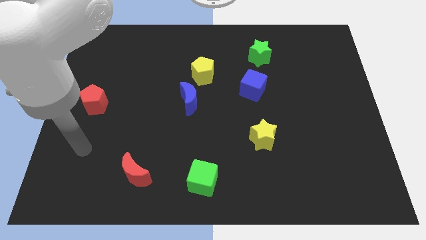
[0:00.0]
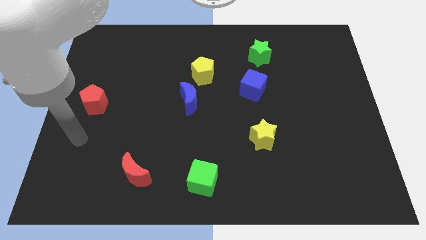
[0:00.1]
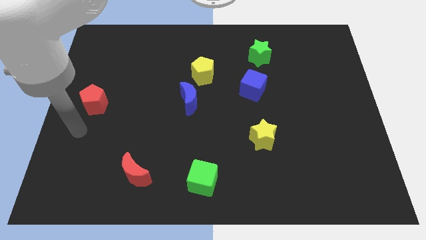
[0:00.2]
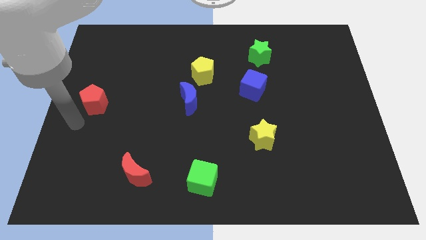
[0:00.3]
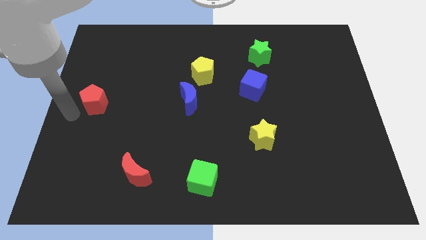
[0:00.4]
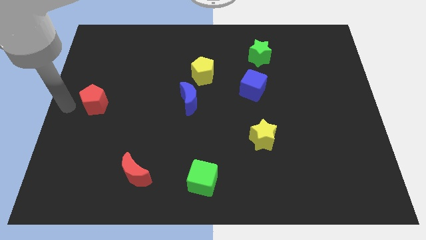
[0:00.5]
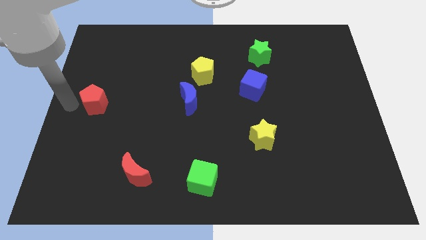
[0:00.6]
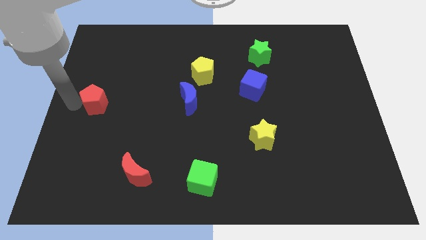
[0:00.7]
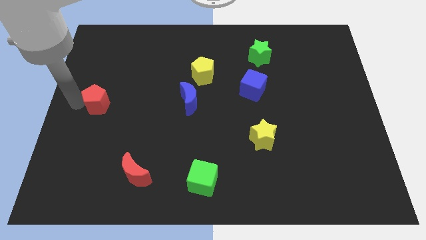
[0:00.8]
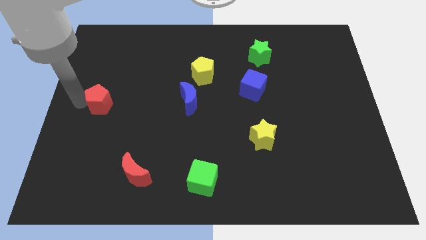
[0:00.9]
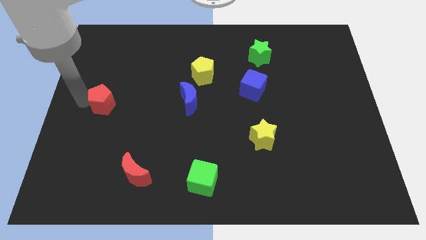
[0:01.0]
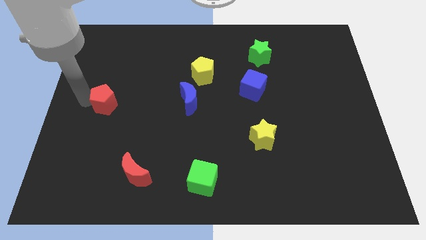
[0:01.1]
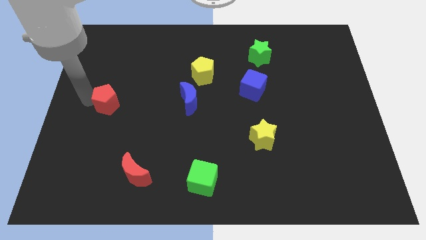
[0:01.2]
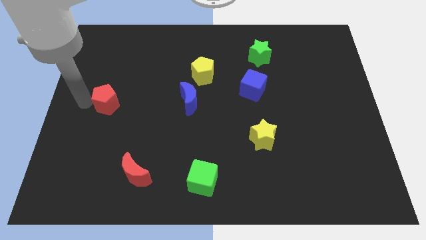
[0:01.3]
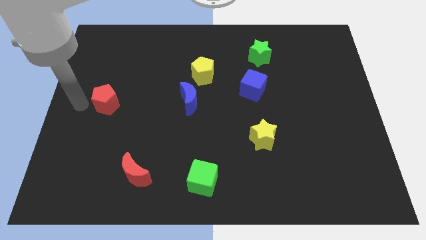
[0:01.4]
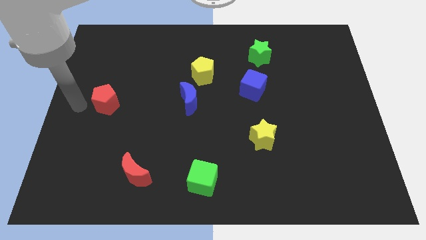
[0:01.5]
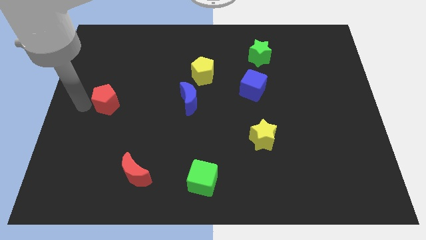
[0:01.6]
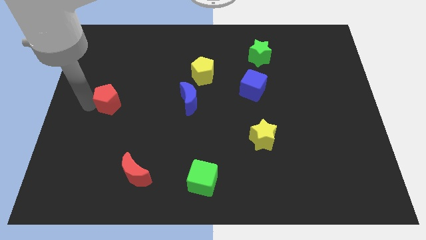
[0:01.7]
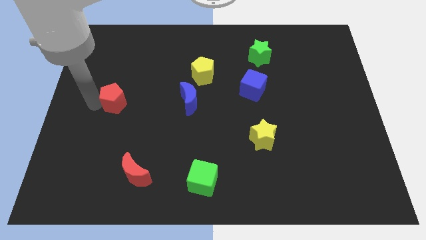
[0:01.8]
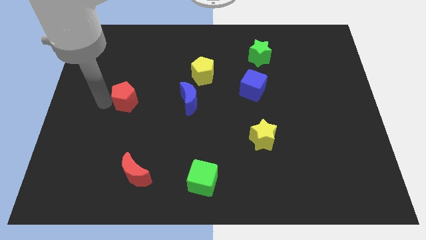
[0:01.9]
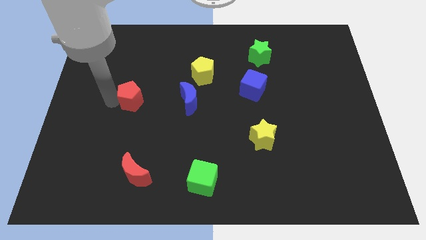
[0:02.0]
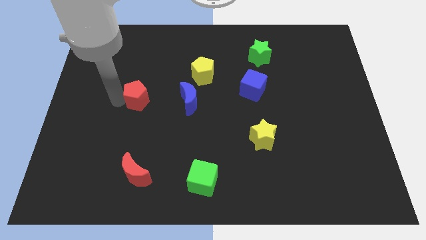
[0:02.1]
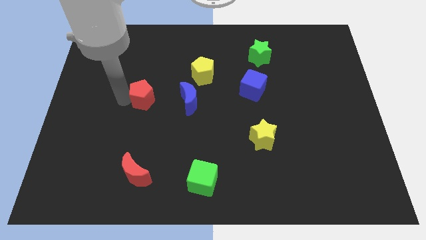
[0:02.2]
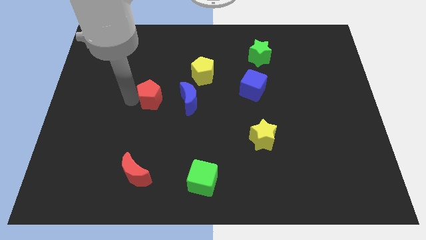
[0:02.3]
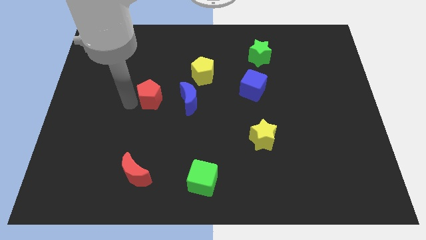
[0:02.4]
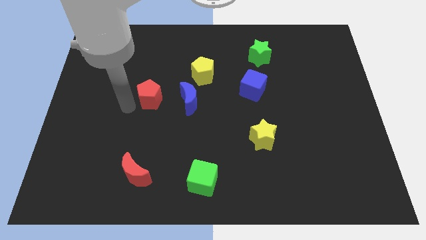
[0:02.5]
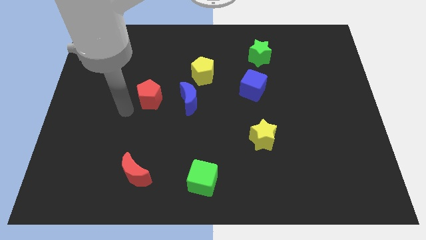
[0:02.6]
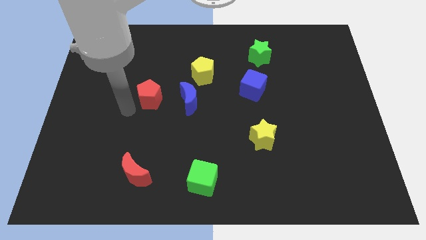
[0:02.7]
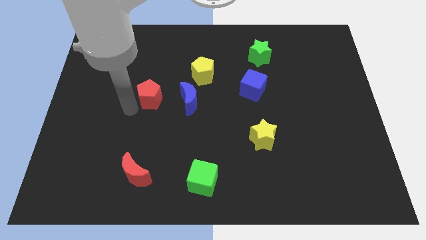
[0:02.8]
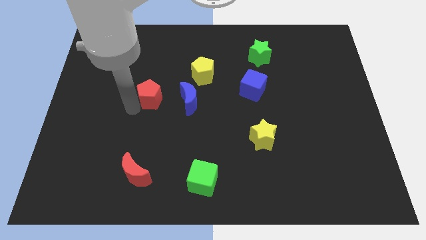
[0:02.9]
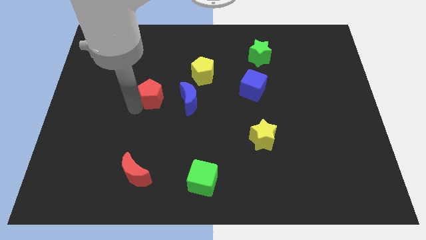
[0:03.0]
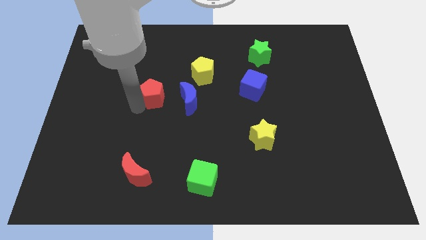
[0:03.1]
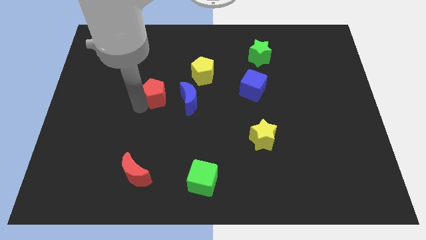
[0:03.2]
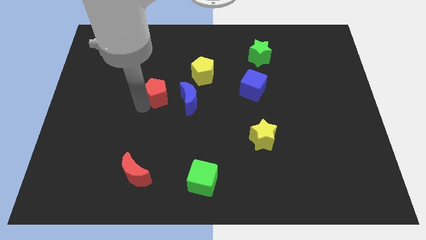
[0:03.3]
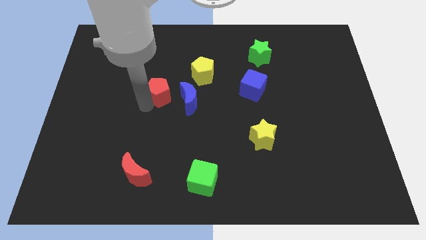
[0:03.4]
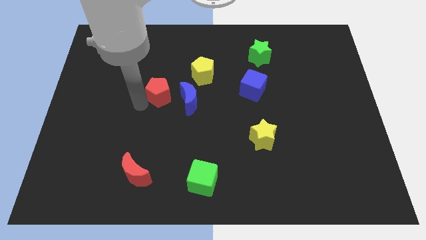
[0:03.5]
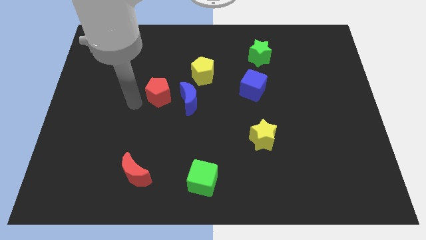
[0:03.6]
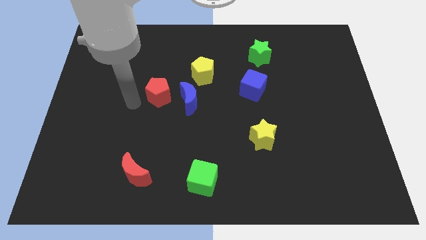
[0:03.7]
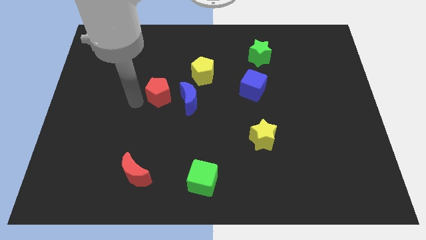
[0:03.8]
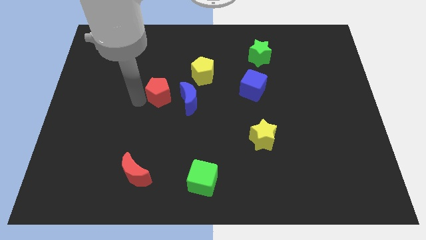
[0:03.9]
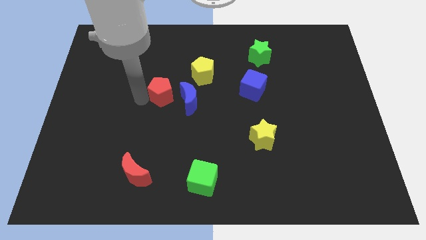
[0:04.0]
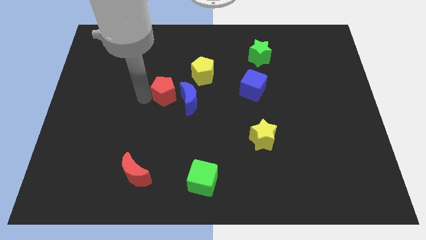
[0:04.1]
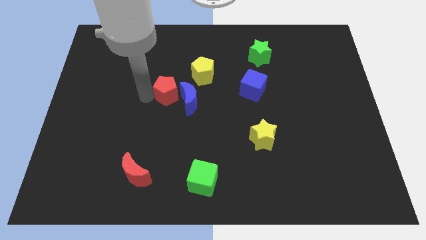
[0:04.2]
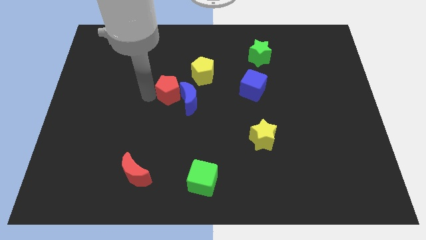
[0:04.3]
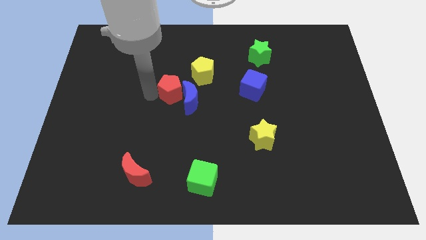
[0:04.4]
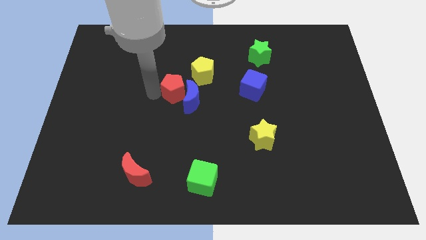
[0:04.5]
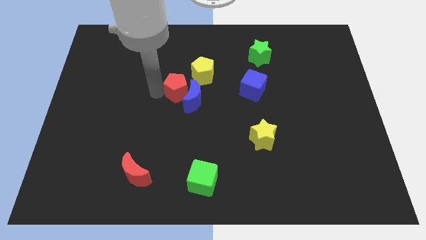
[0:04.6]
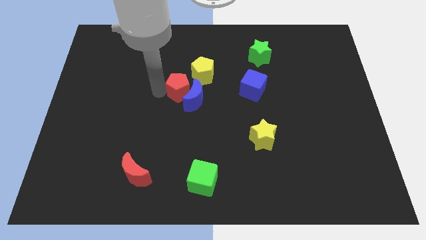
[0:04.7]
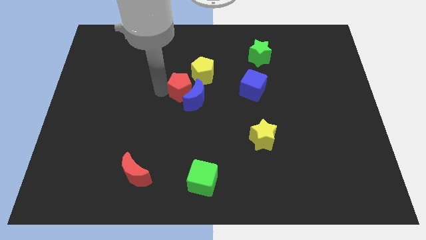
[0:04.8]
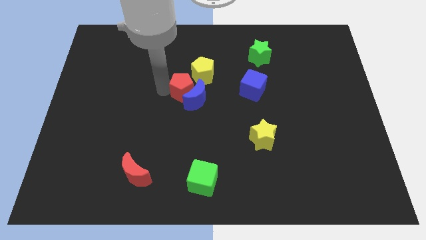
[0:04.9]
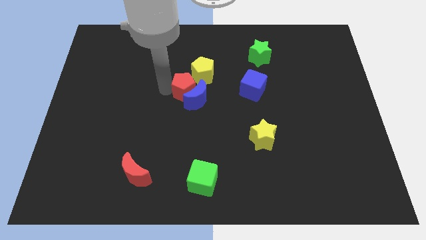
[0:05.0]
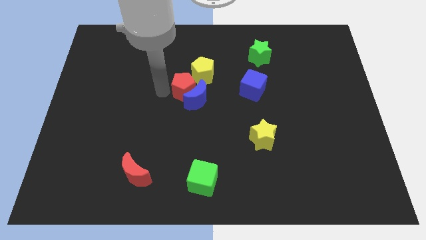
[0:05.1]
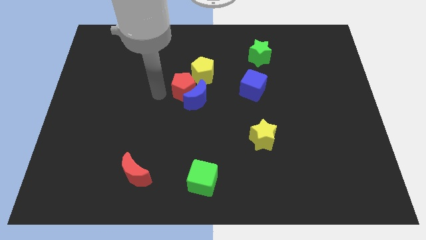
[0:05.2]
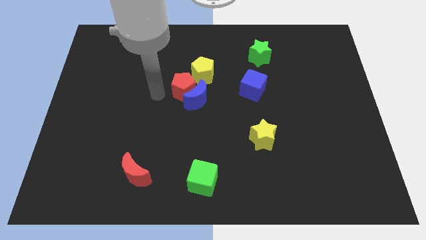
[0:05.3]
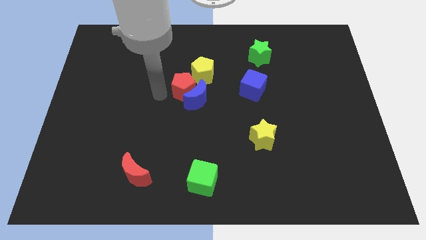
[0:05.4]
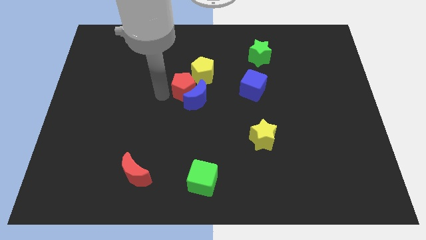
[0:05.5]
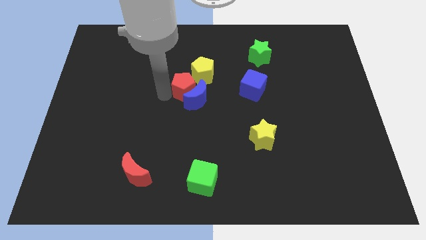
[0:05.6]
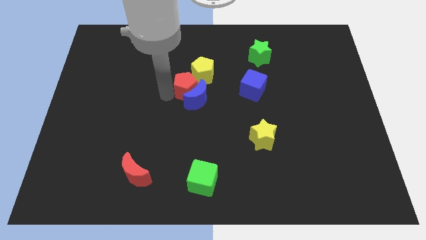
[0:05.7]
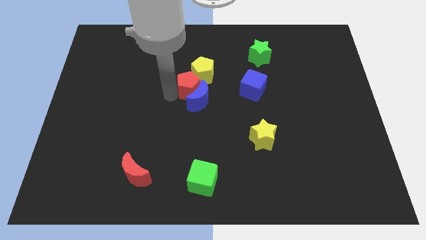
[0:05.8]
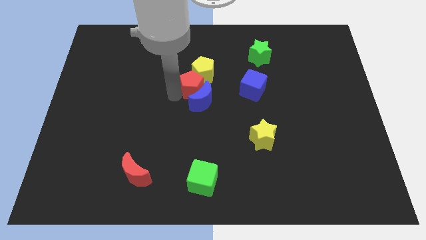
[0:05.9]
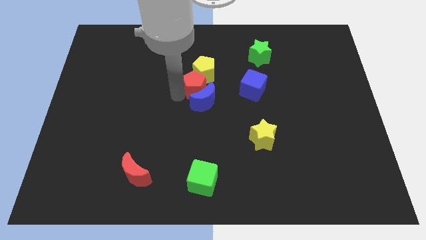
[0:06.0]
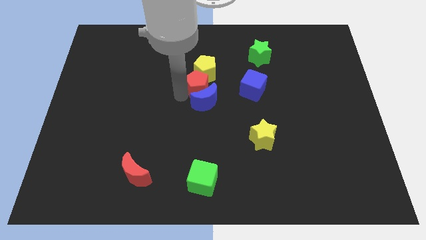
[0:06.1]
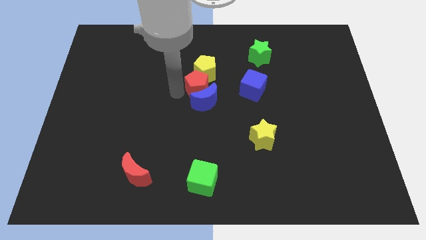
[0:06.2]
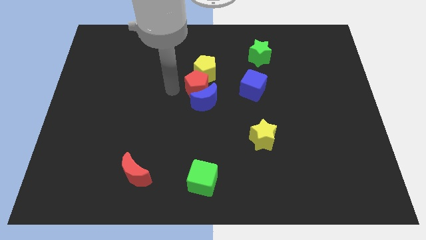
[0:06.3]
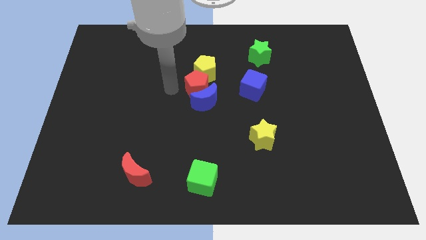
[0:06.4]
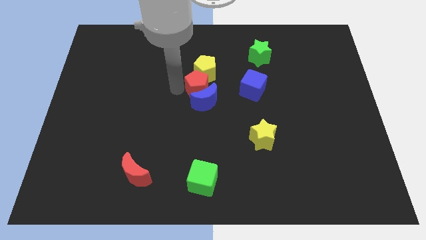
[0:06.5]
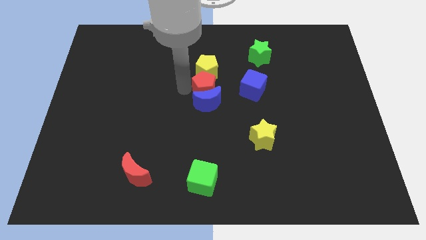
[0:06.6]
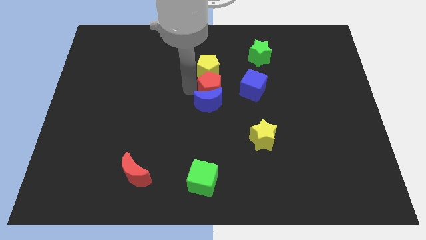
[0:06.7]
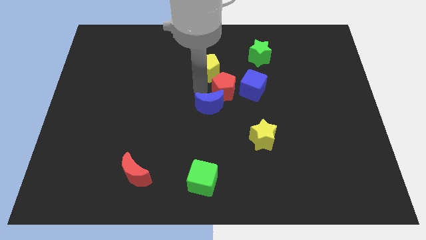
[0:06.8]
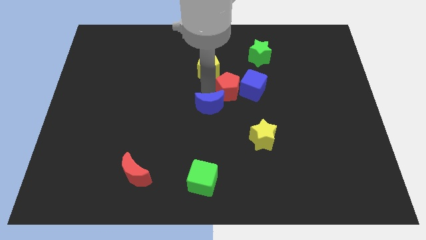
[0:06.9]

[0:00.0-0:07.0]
push the red pentagon towards the blue cube

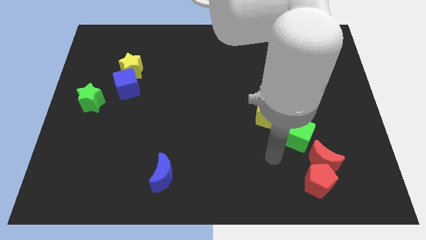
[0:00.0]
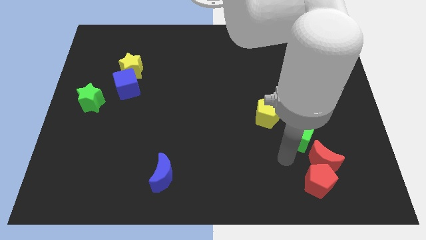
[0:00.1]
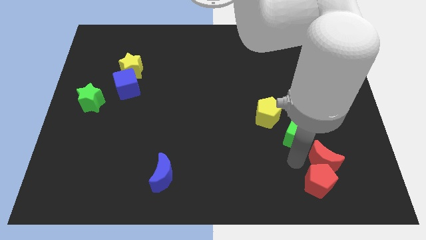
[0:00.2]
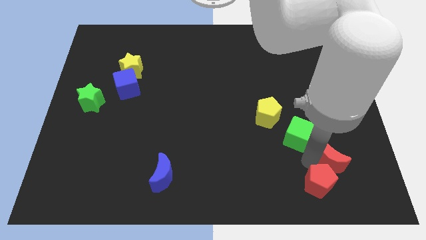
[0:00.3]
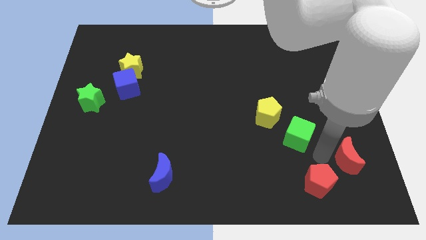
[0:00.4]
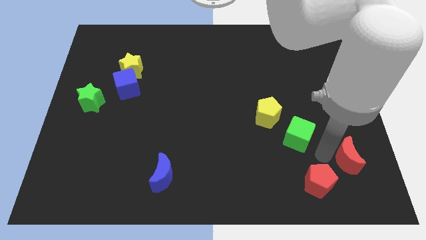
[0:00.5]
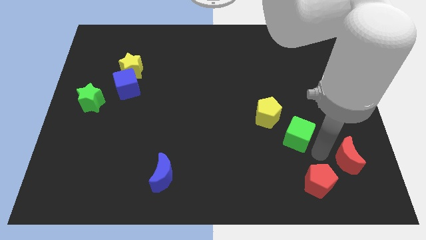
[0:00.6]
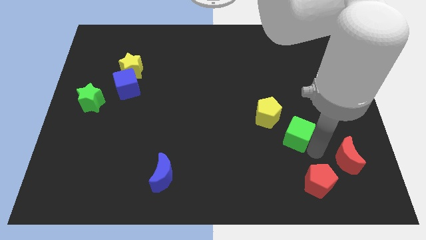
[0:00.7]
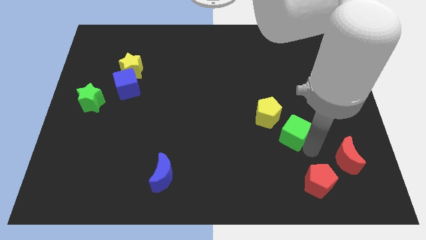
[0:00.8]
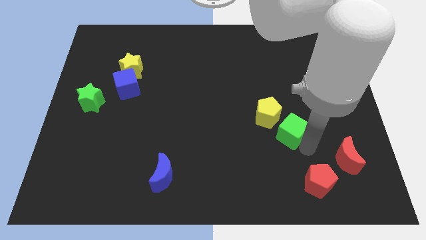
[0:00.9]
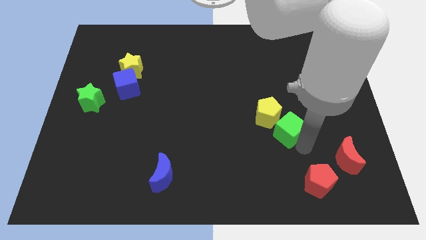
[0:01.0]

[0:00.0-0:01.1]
push the green cube to the yellow pentagon
